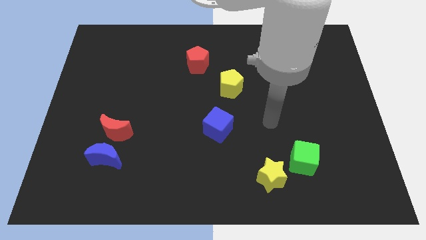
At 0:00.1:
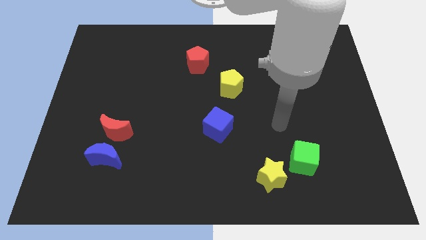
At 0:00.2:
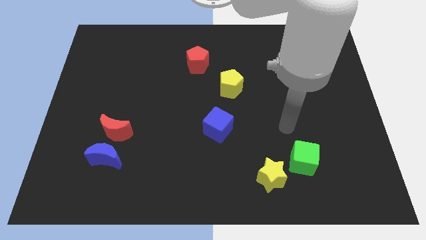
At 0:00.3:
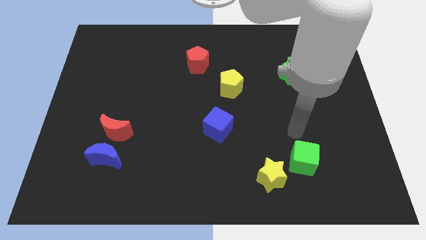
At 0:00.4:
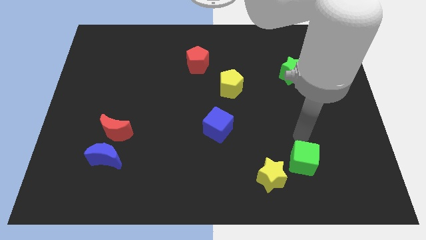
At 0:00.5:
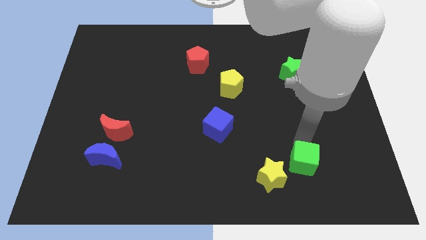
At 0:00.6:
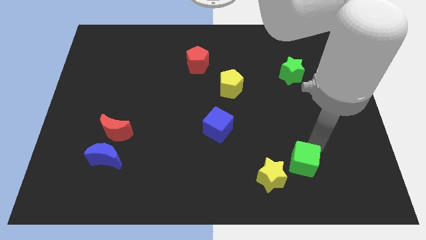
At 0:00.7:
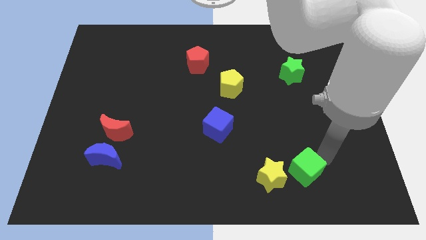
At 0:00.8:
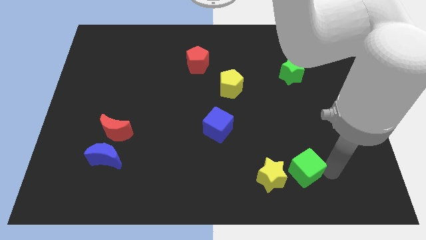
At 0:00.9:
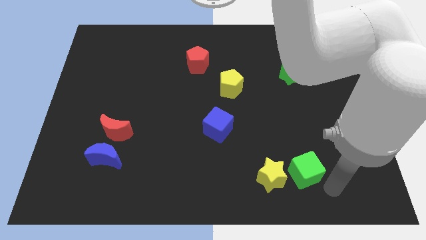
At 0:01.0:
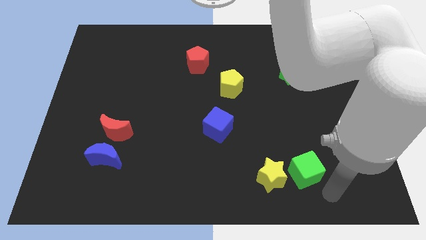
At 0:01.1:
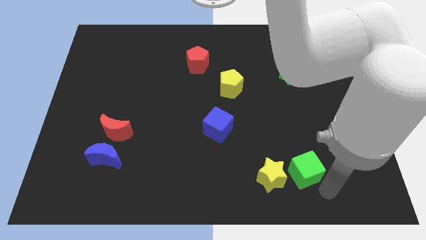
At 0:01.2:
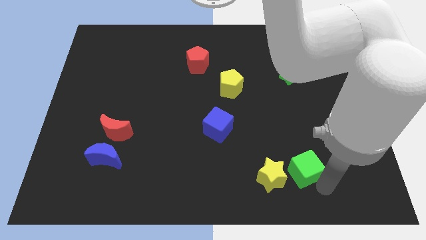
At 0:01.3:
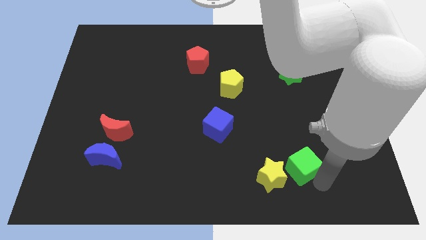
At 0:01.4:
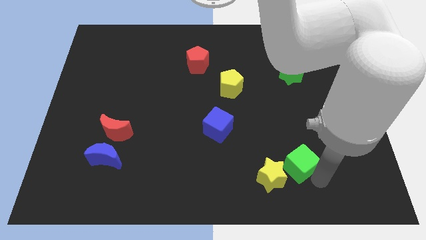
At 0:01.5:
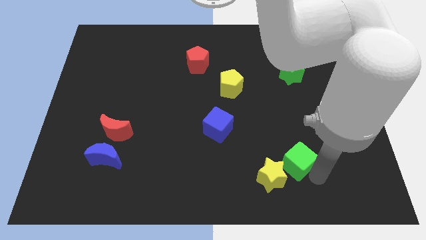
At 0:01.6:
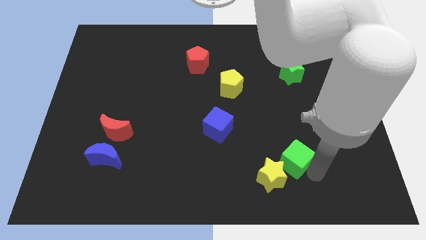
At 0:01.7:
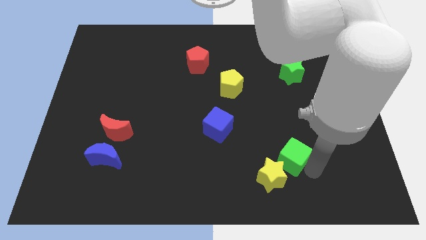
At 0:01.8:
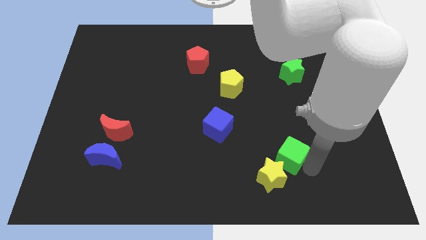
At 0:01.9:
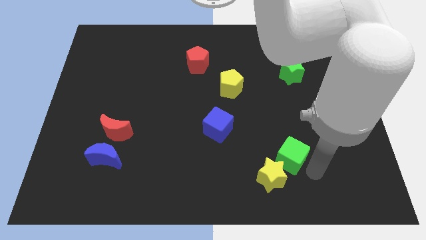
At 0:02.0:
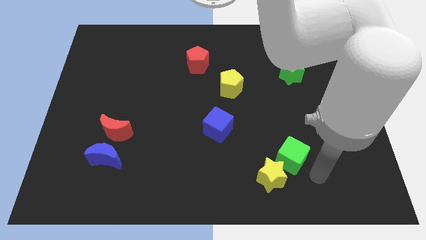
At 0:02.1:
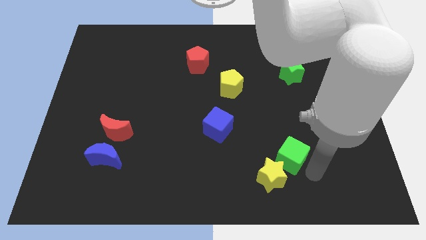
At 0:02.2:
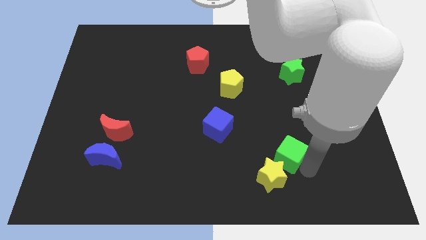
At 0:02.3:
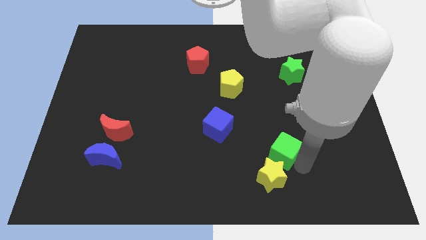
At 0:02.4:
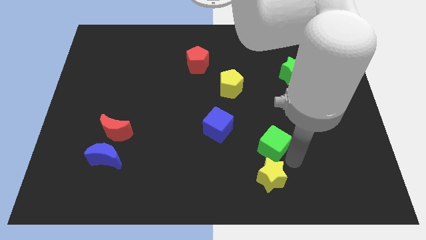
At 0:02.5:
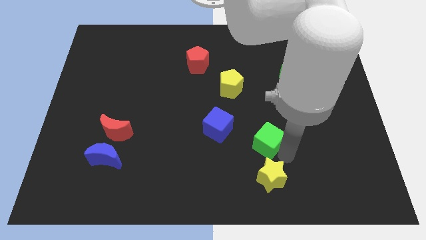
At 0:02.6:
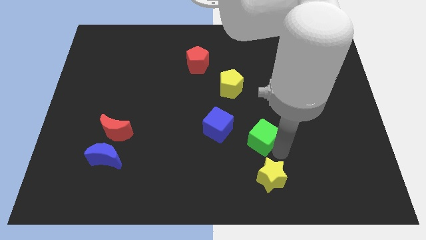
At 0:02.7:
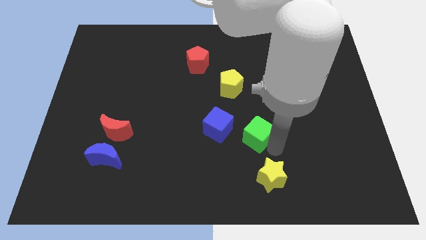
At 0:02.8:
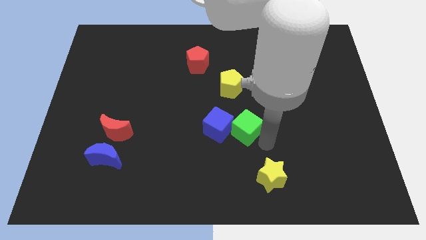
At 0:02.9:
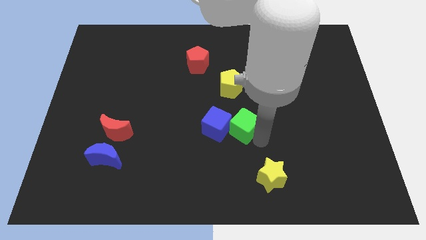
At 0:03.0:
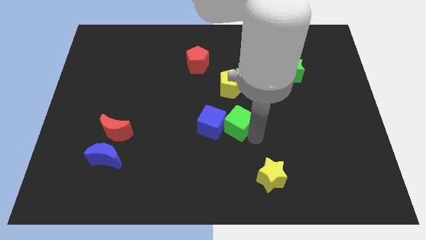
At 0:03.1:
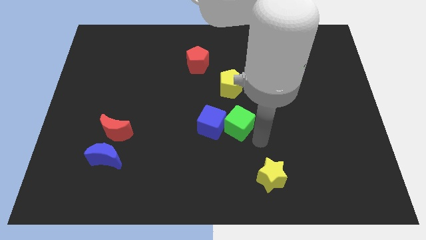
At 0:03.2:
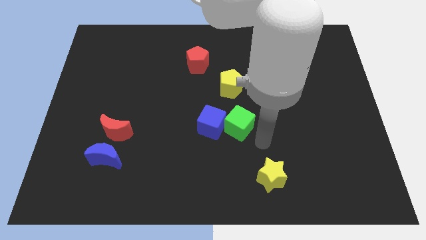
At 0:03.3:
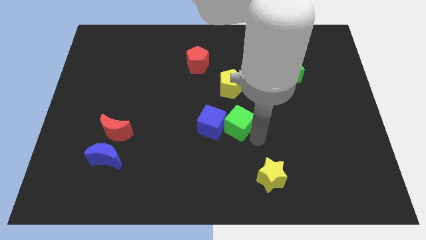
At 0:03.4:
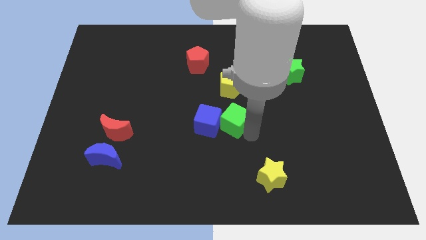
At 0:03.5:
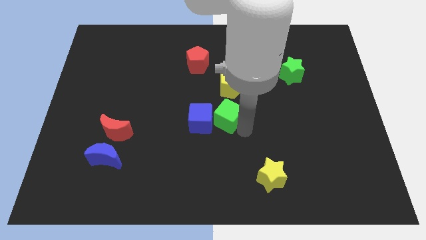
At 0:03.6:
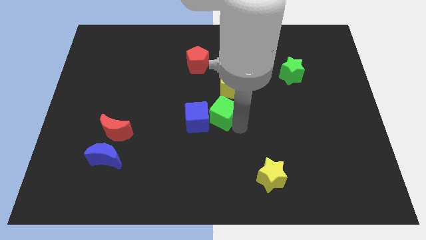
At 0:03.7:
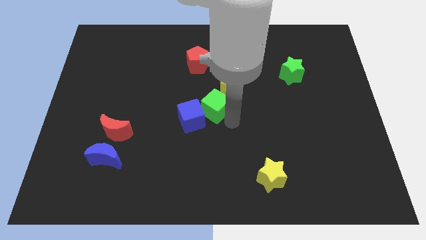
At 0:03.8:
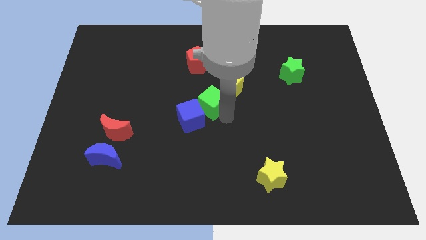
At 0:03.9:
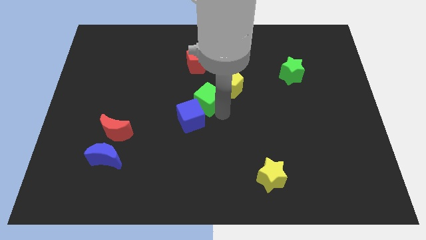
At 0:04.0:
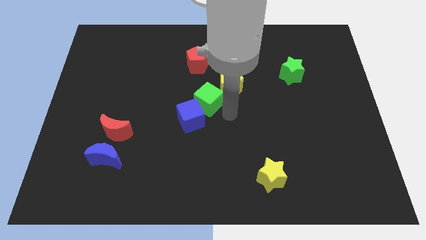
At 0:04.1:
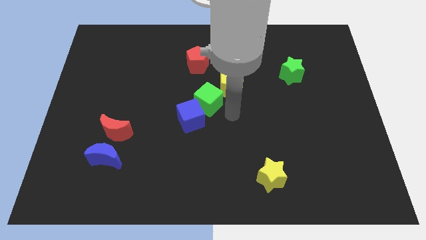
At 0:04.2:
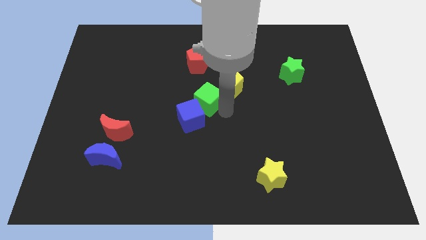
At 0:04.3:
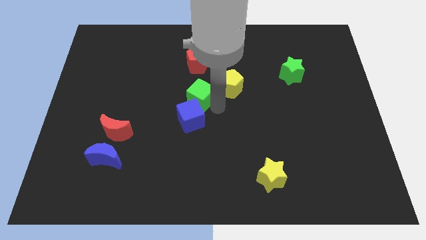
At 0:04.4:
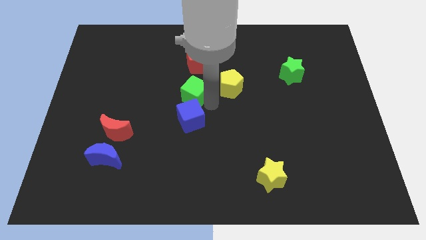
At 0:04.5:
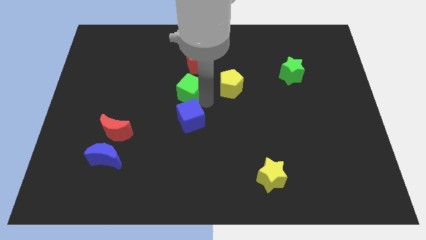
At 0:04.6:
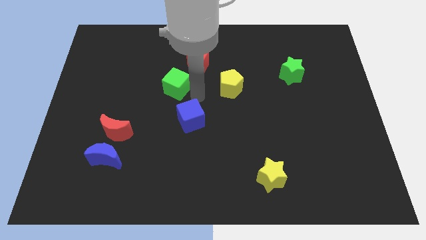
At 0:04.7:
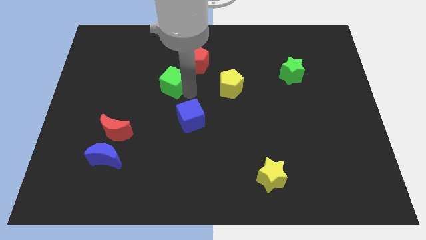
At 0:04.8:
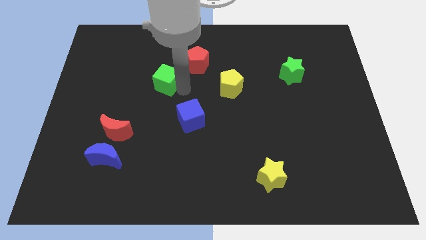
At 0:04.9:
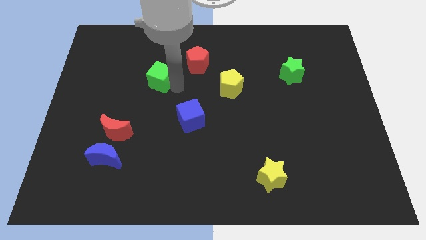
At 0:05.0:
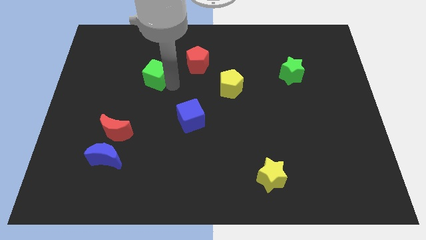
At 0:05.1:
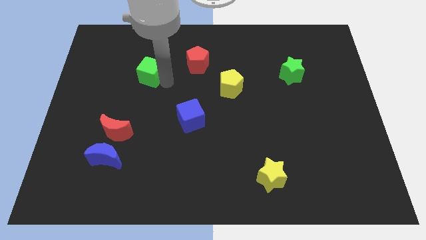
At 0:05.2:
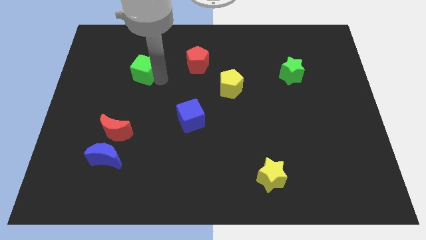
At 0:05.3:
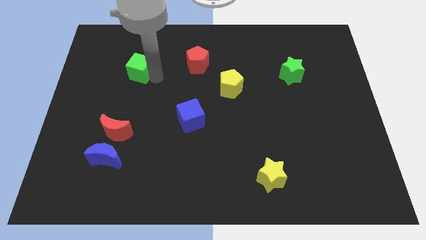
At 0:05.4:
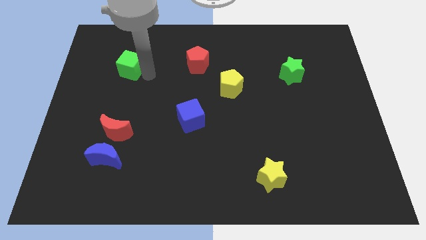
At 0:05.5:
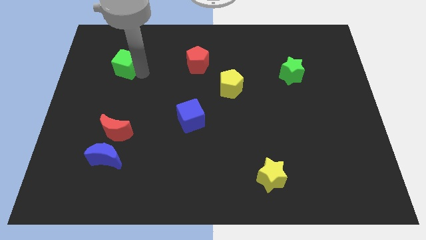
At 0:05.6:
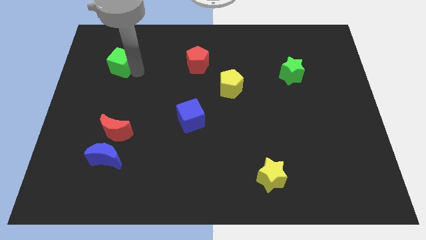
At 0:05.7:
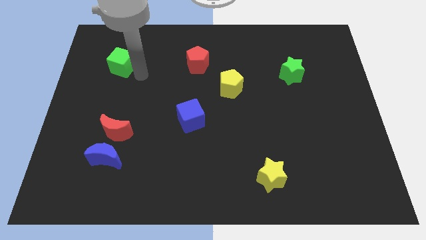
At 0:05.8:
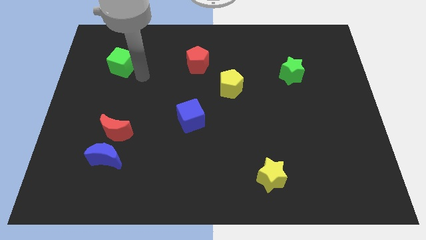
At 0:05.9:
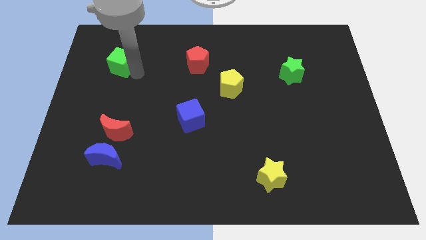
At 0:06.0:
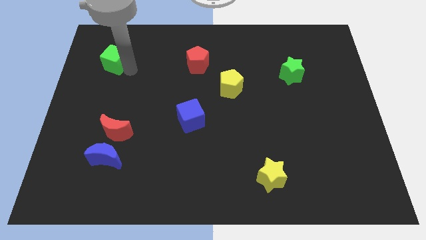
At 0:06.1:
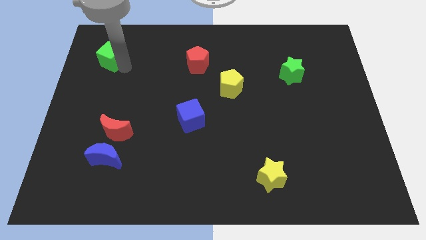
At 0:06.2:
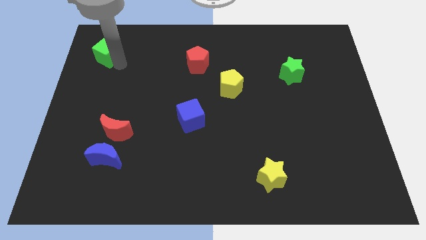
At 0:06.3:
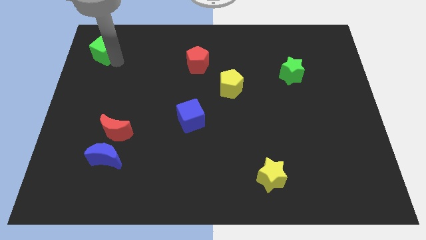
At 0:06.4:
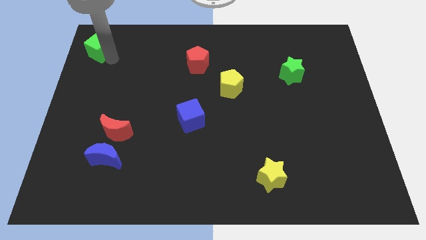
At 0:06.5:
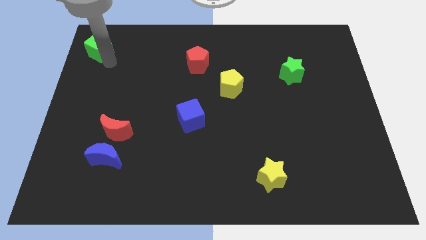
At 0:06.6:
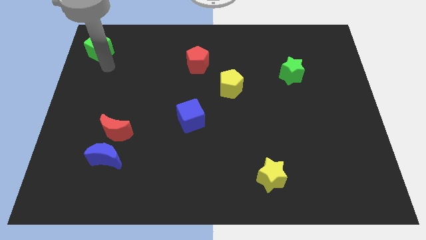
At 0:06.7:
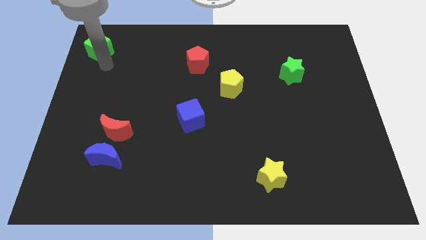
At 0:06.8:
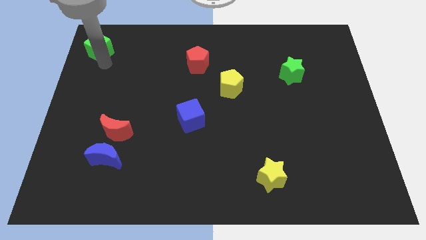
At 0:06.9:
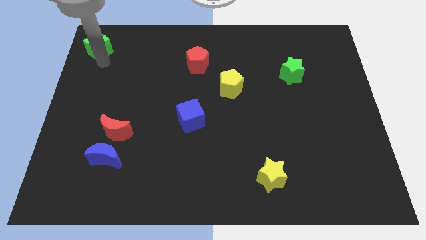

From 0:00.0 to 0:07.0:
move the green cube to the upper left corner
